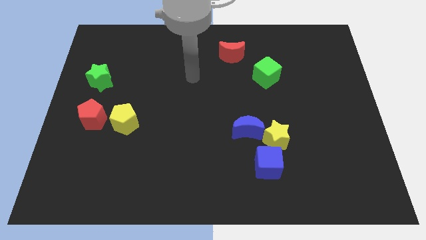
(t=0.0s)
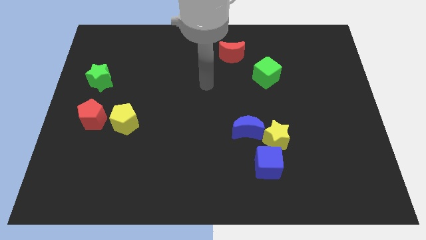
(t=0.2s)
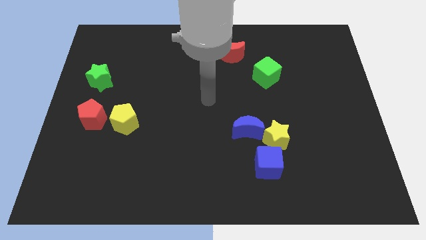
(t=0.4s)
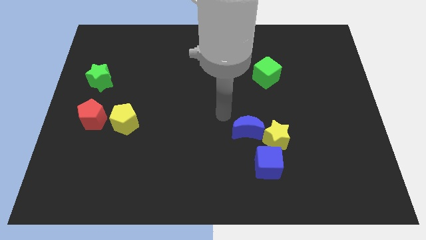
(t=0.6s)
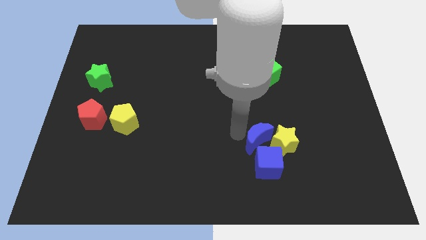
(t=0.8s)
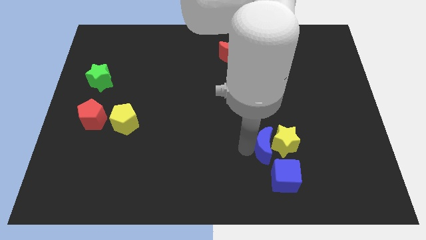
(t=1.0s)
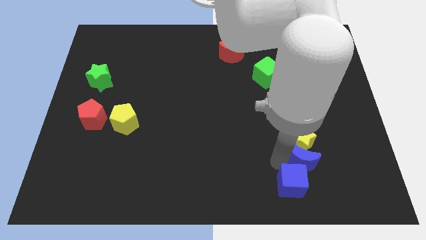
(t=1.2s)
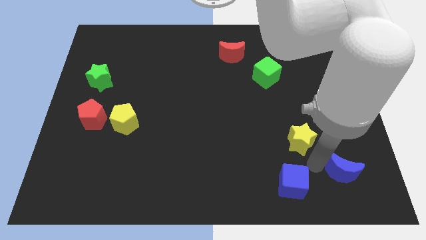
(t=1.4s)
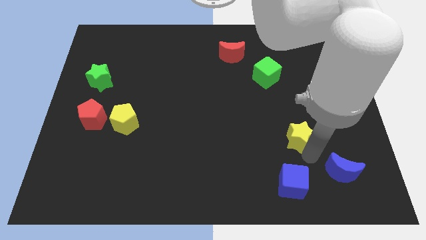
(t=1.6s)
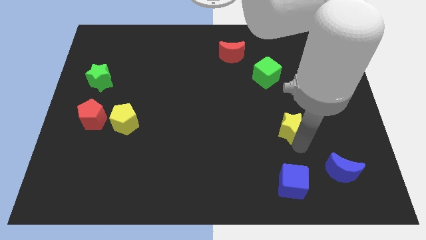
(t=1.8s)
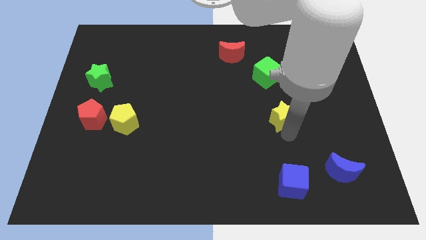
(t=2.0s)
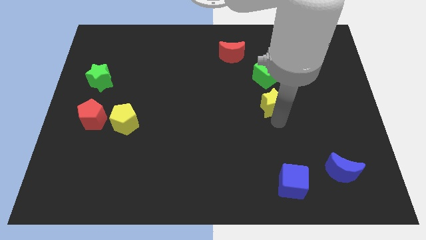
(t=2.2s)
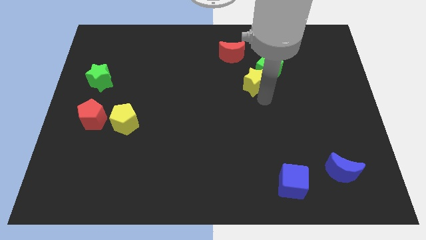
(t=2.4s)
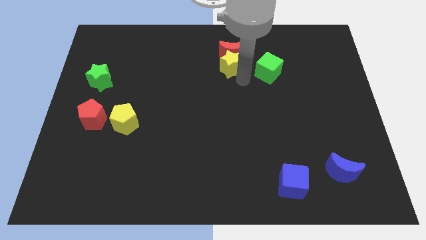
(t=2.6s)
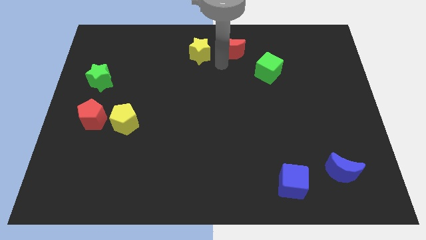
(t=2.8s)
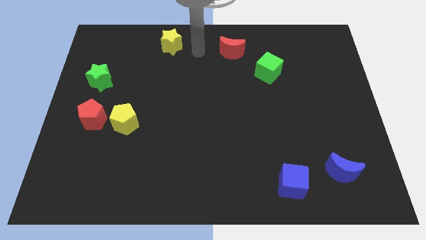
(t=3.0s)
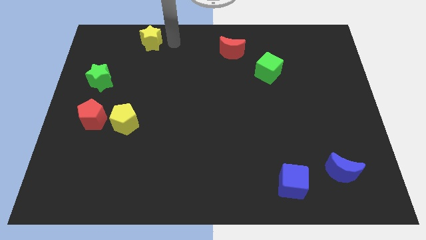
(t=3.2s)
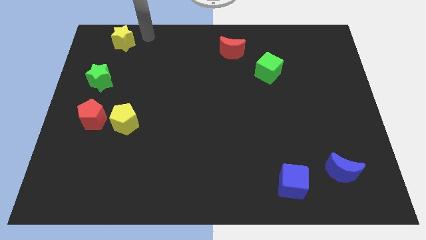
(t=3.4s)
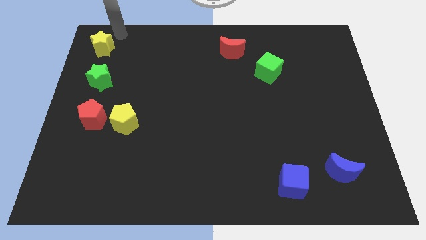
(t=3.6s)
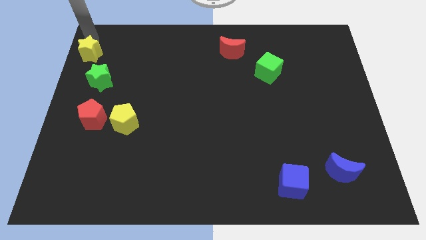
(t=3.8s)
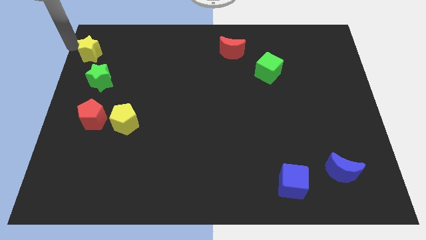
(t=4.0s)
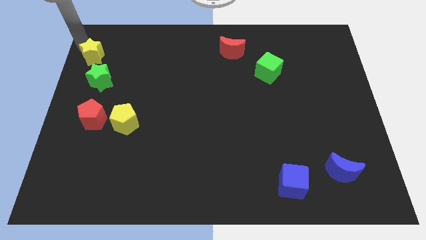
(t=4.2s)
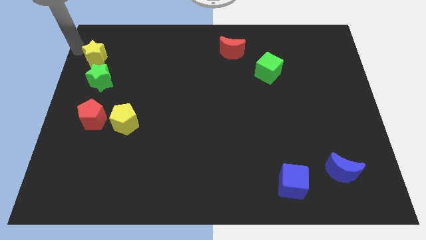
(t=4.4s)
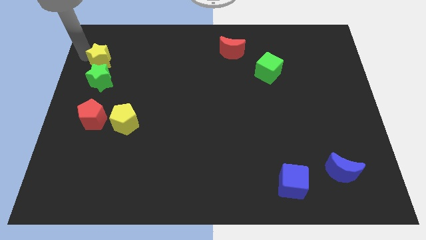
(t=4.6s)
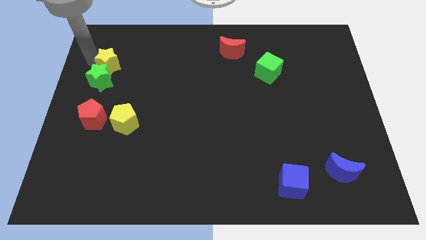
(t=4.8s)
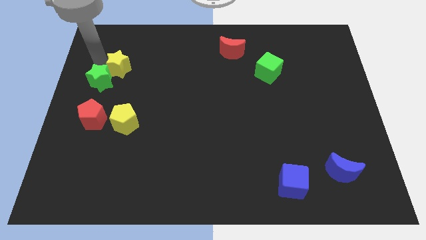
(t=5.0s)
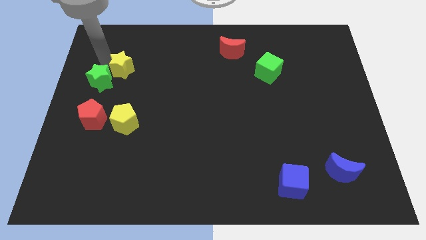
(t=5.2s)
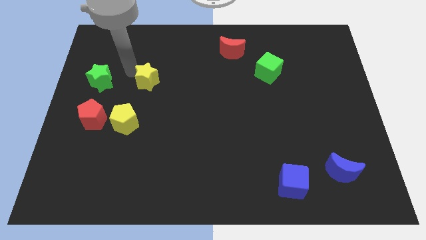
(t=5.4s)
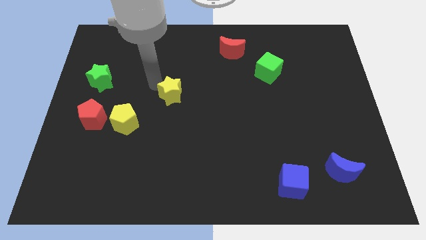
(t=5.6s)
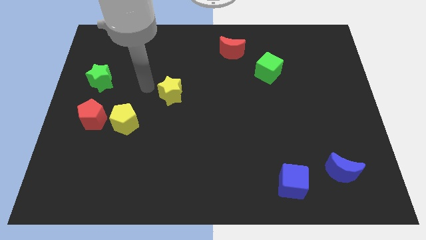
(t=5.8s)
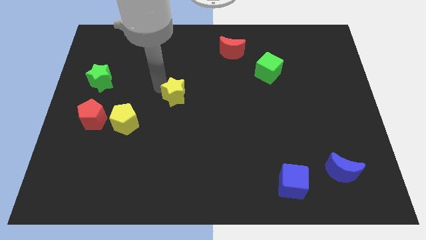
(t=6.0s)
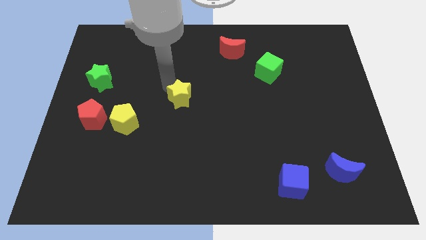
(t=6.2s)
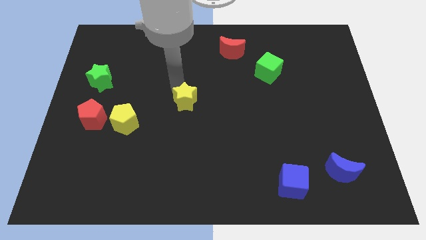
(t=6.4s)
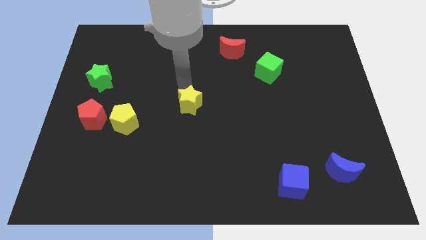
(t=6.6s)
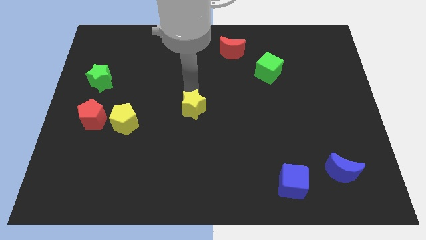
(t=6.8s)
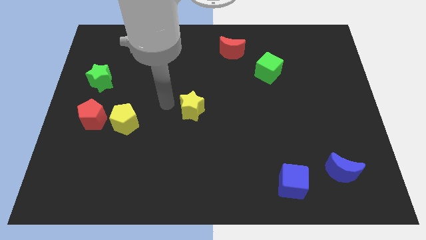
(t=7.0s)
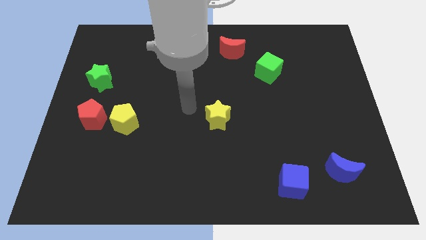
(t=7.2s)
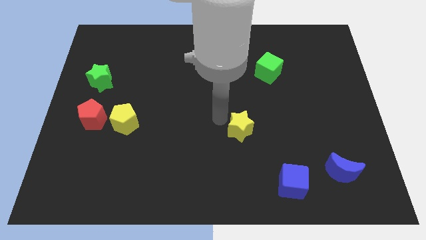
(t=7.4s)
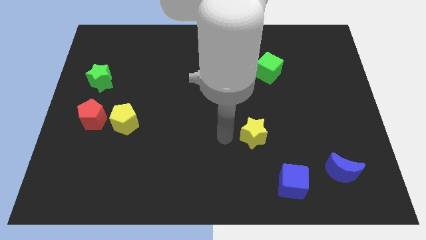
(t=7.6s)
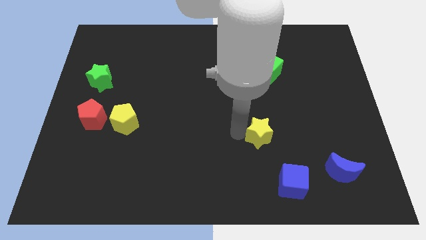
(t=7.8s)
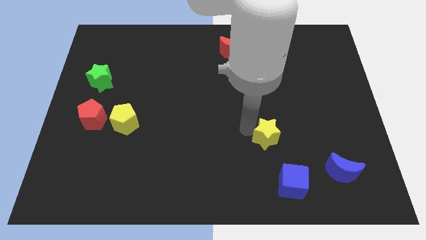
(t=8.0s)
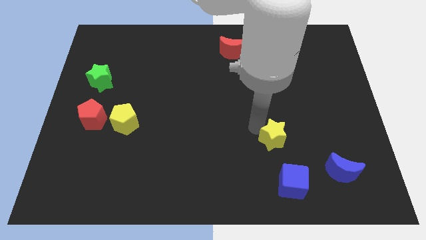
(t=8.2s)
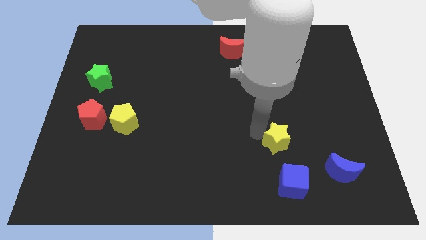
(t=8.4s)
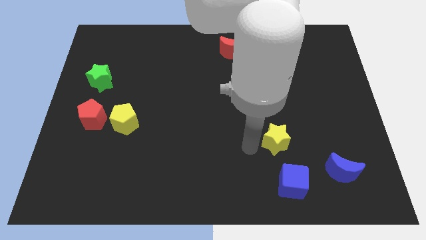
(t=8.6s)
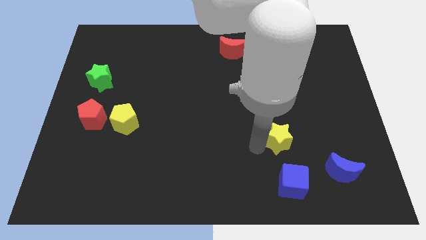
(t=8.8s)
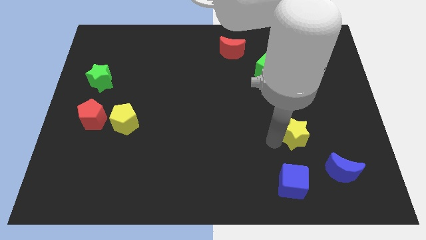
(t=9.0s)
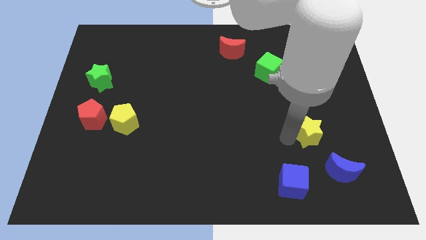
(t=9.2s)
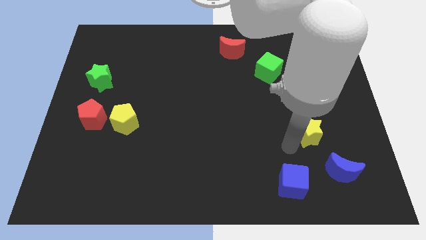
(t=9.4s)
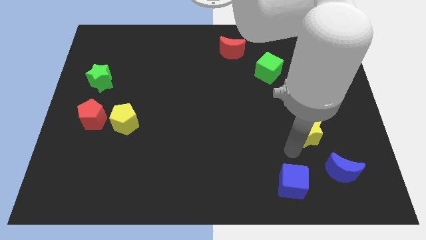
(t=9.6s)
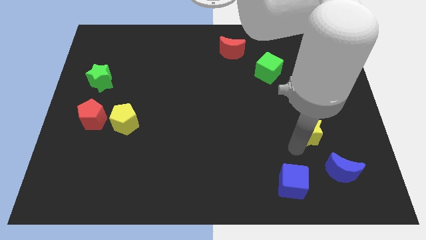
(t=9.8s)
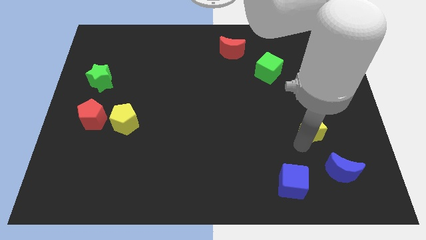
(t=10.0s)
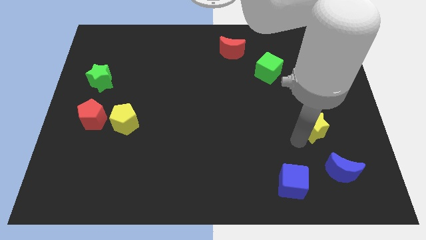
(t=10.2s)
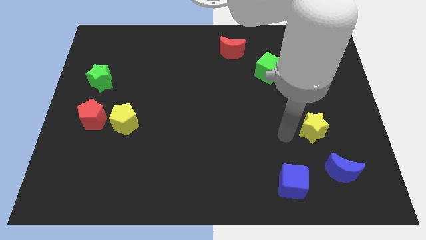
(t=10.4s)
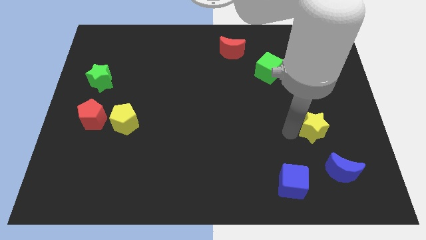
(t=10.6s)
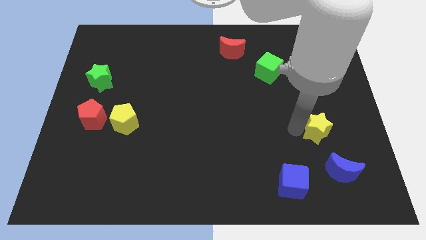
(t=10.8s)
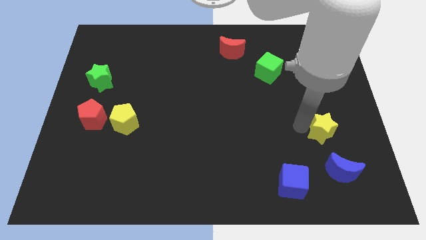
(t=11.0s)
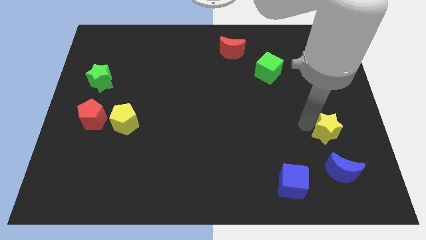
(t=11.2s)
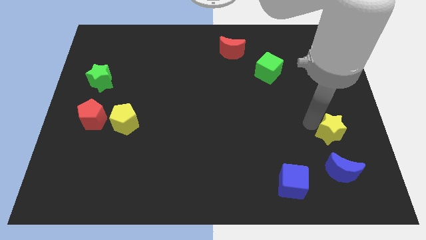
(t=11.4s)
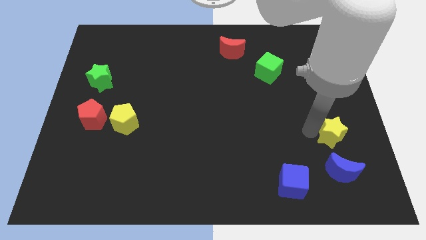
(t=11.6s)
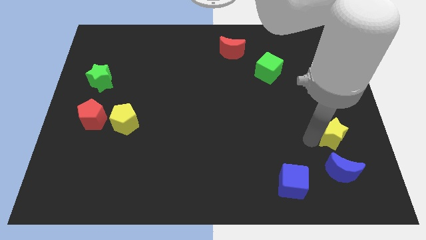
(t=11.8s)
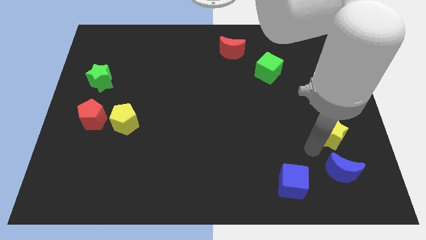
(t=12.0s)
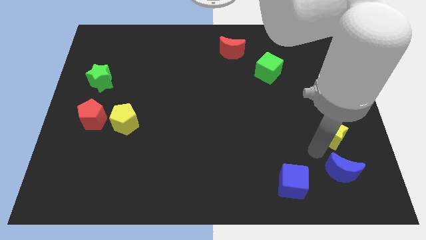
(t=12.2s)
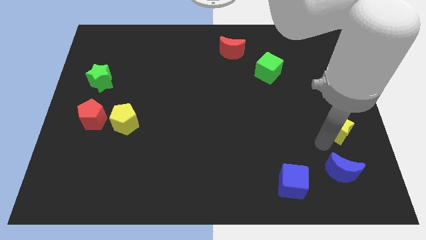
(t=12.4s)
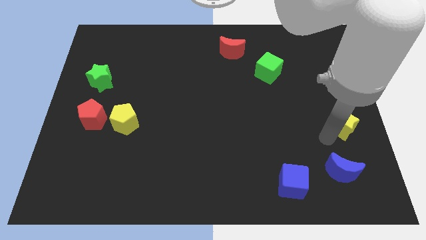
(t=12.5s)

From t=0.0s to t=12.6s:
move the yellow star to the right side

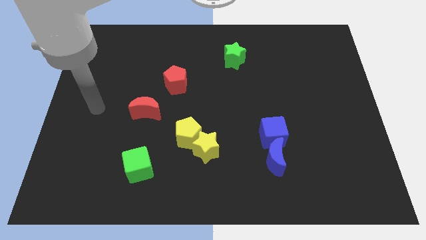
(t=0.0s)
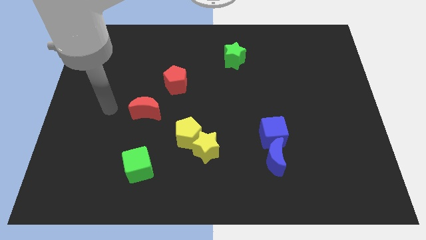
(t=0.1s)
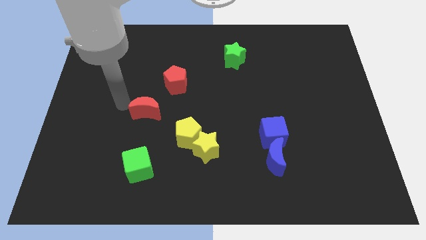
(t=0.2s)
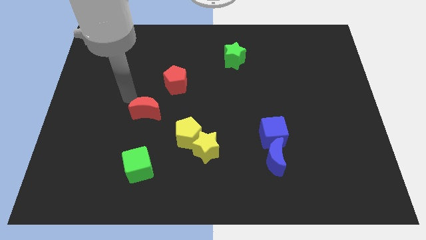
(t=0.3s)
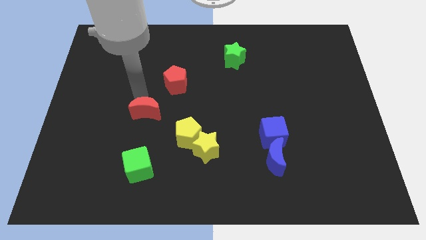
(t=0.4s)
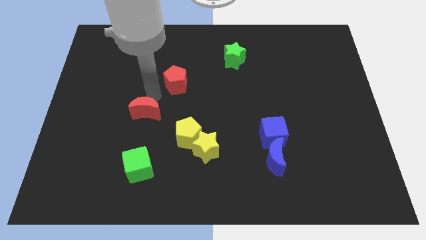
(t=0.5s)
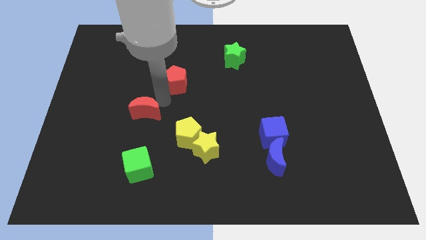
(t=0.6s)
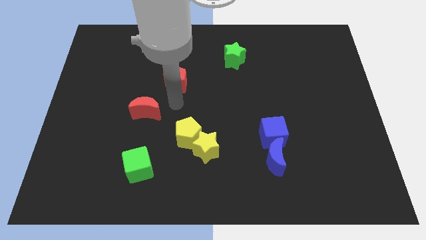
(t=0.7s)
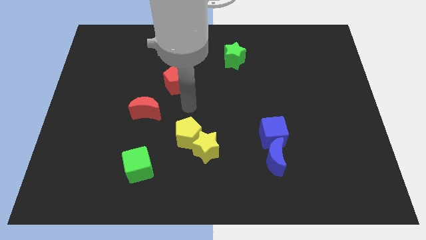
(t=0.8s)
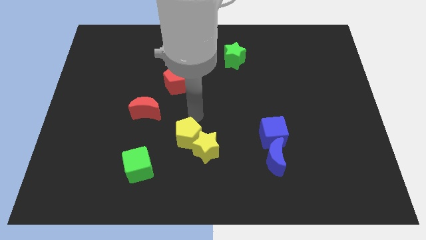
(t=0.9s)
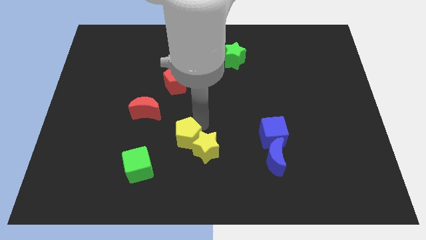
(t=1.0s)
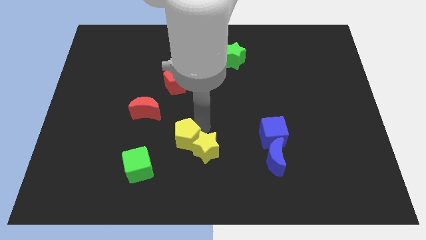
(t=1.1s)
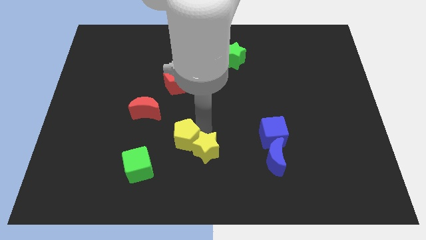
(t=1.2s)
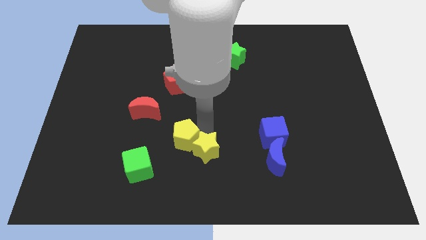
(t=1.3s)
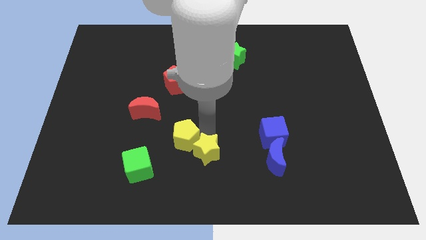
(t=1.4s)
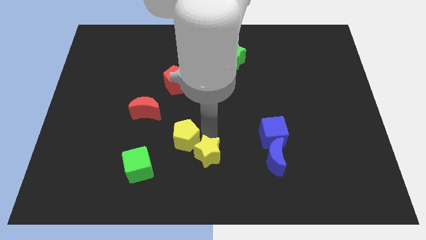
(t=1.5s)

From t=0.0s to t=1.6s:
slide the yellow star to the bottom side
